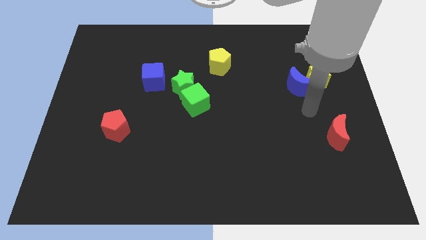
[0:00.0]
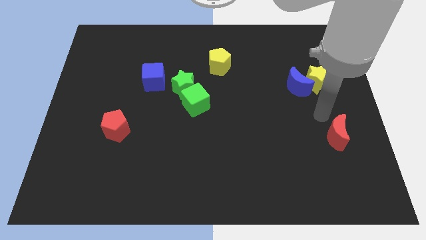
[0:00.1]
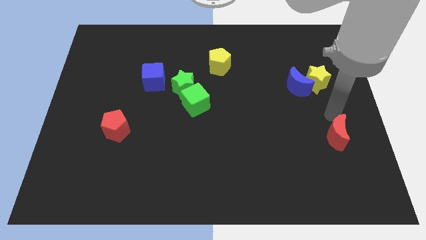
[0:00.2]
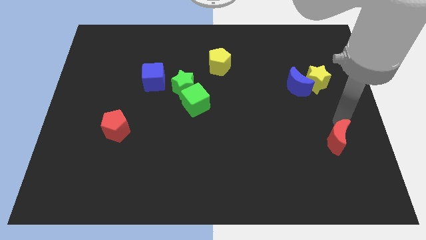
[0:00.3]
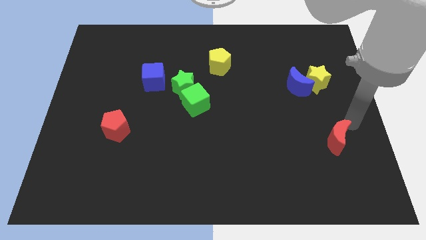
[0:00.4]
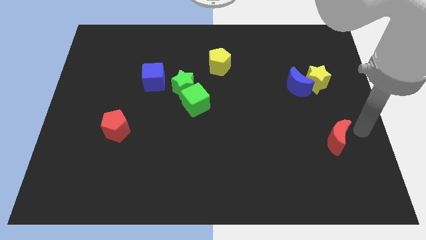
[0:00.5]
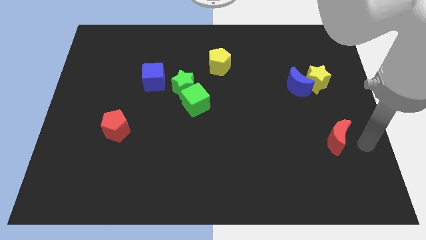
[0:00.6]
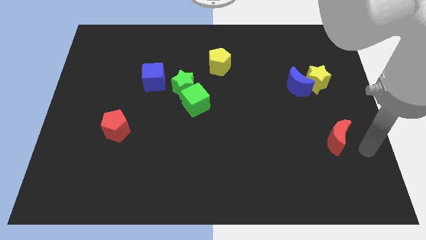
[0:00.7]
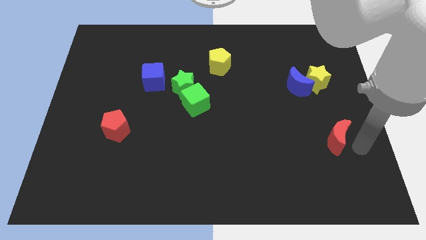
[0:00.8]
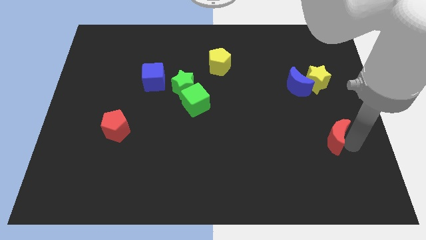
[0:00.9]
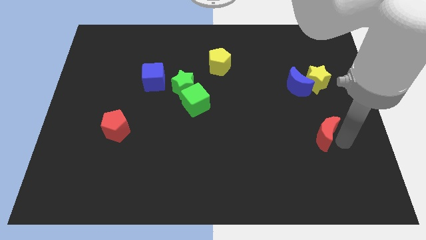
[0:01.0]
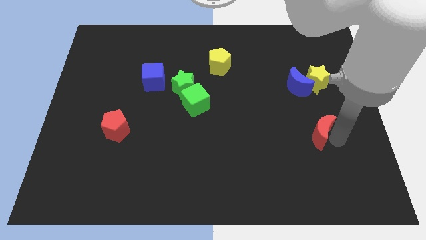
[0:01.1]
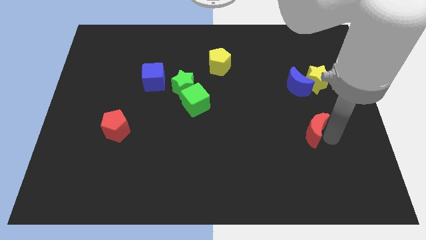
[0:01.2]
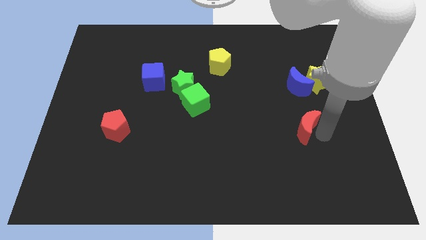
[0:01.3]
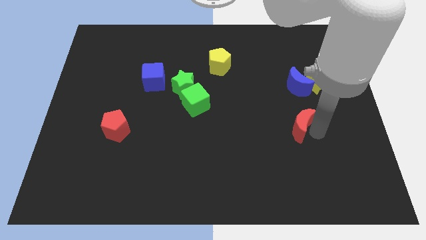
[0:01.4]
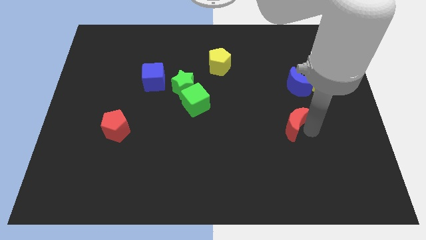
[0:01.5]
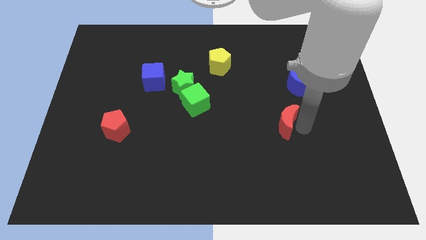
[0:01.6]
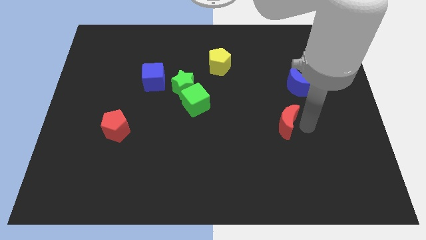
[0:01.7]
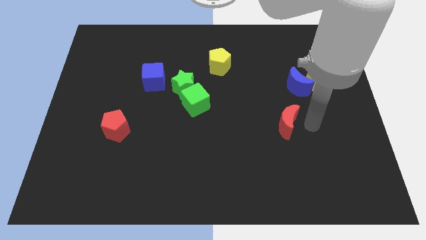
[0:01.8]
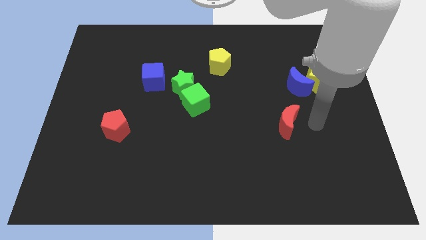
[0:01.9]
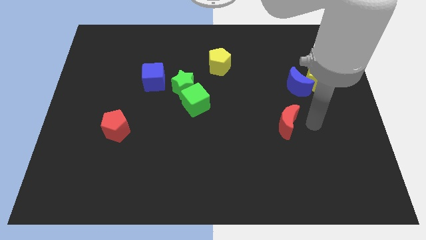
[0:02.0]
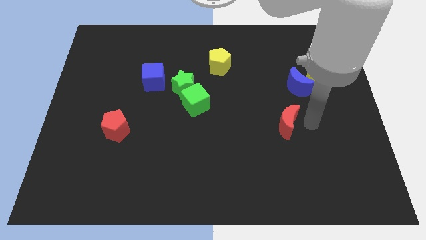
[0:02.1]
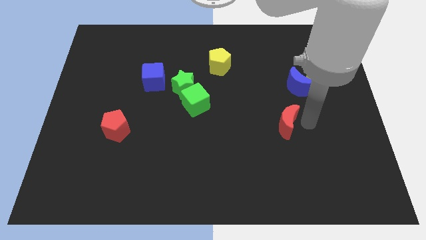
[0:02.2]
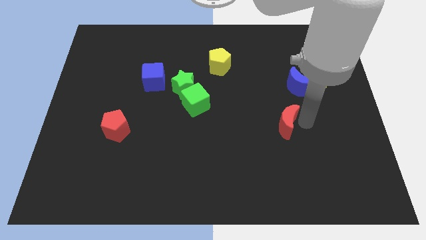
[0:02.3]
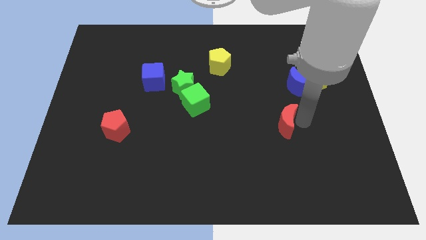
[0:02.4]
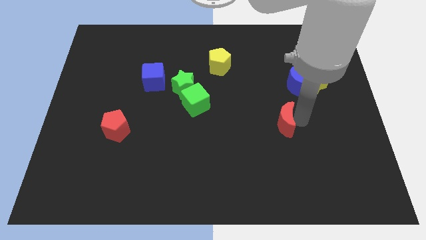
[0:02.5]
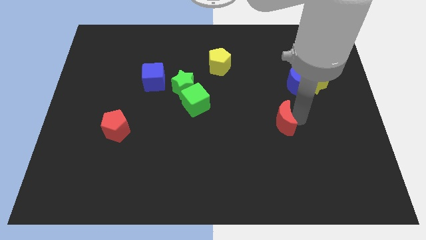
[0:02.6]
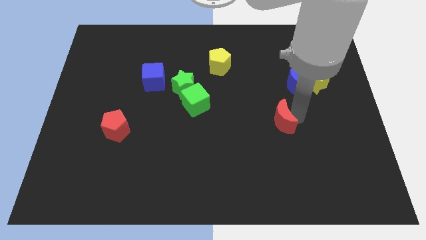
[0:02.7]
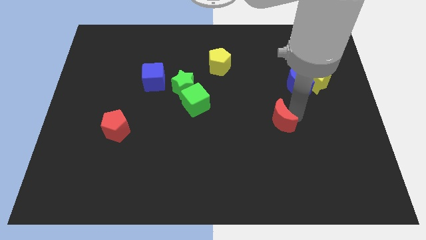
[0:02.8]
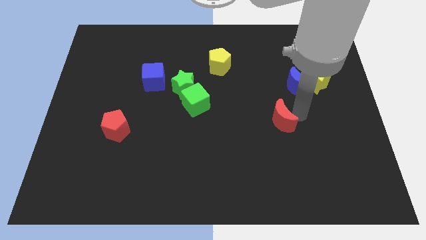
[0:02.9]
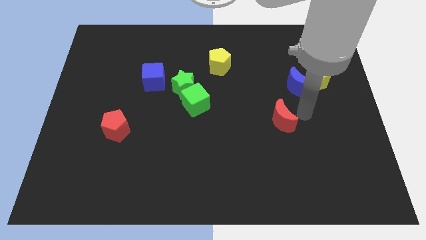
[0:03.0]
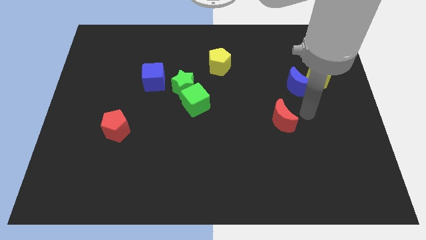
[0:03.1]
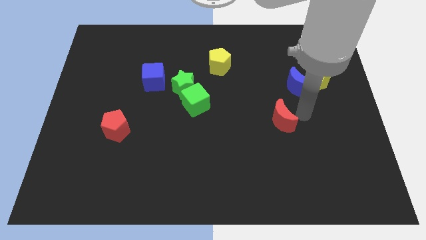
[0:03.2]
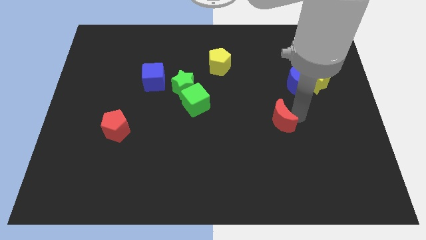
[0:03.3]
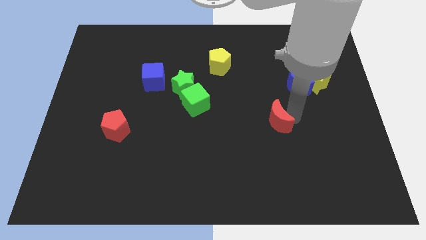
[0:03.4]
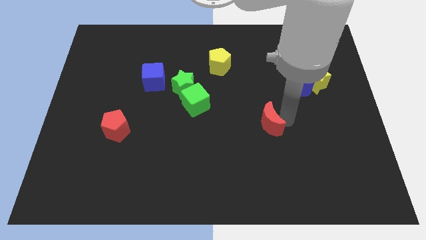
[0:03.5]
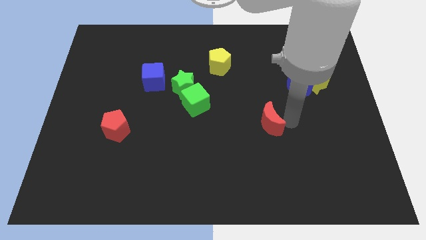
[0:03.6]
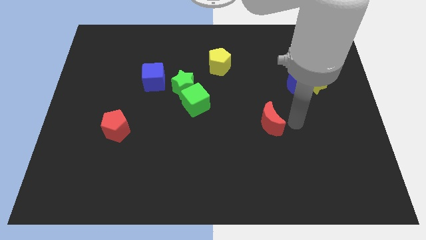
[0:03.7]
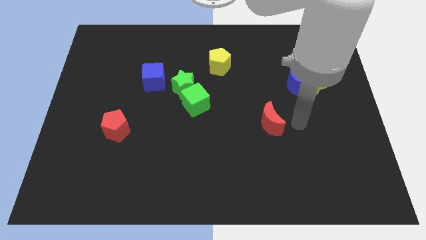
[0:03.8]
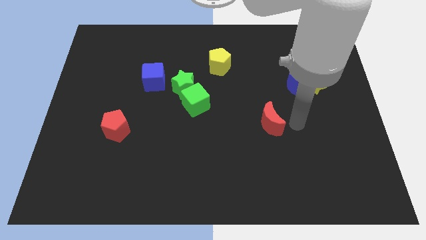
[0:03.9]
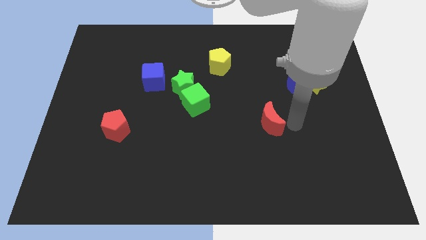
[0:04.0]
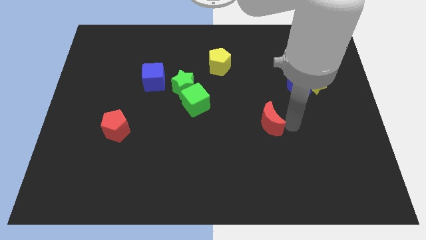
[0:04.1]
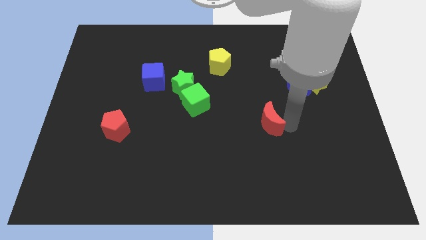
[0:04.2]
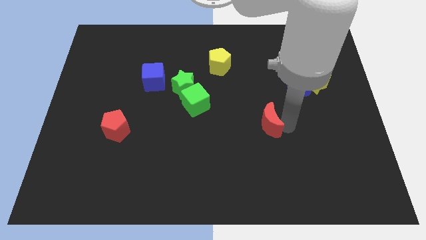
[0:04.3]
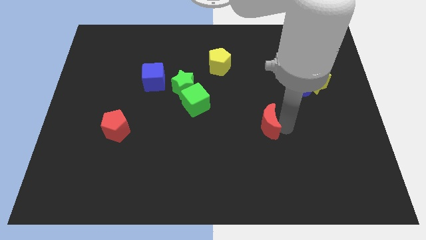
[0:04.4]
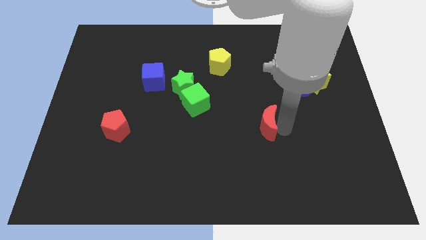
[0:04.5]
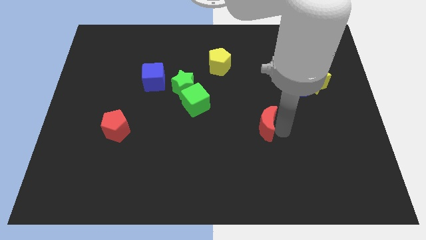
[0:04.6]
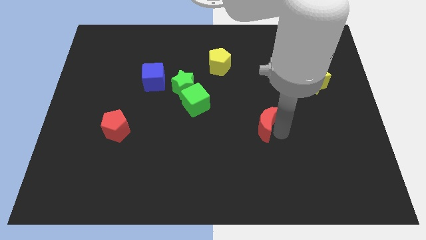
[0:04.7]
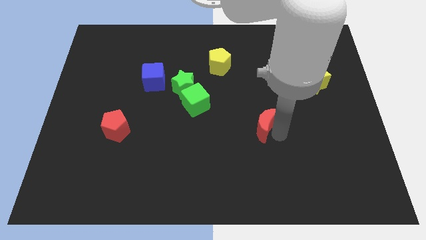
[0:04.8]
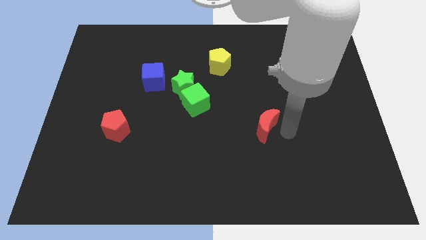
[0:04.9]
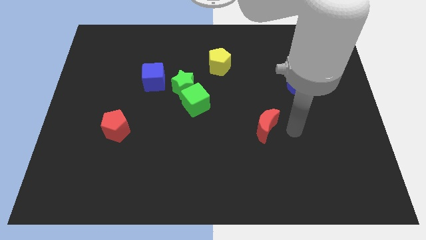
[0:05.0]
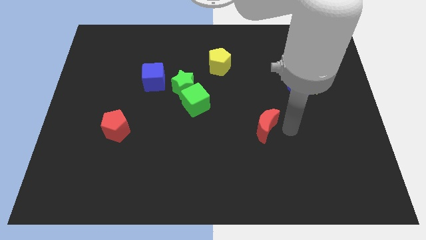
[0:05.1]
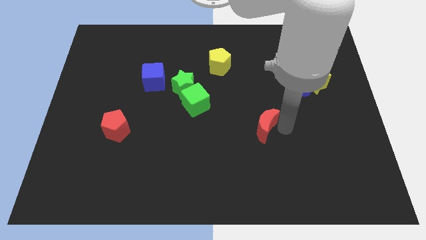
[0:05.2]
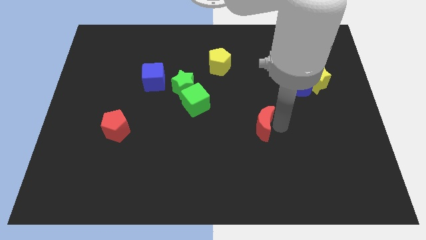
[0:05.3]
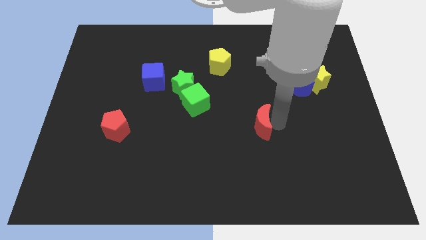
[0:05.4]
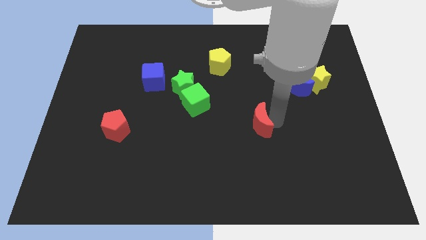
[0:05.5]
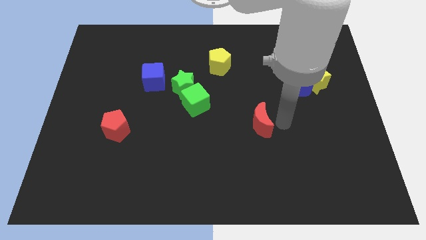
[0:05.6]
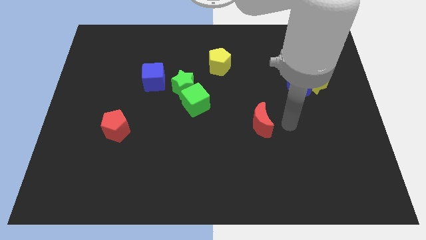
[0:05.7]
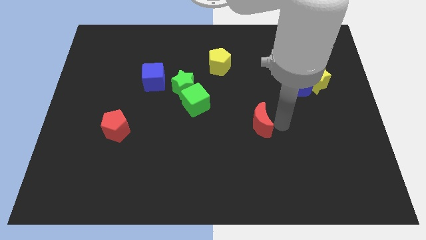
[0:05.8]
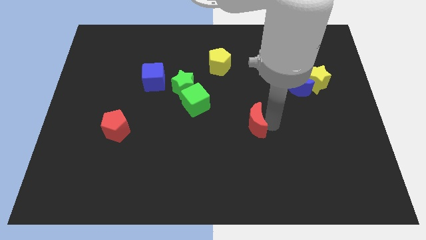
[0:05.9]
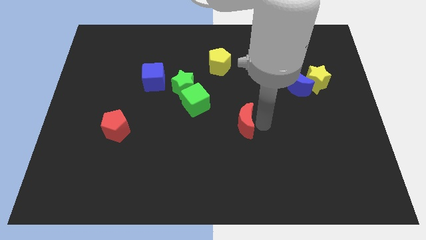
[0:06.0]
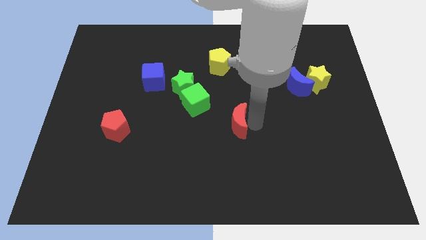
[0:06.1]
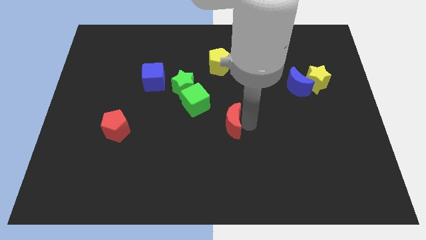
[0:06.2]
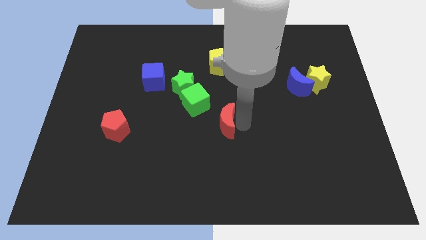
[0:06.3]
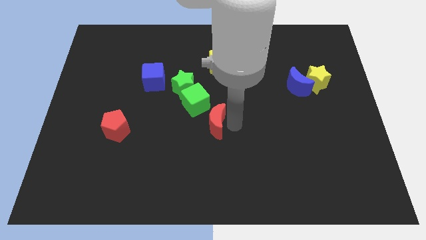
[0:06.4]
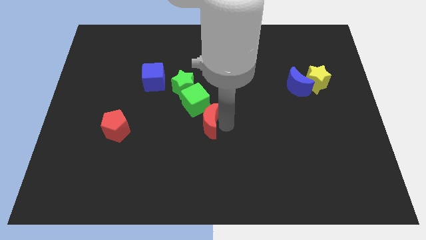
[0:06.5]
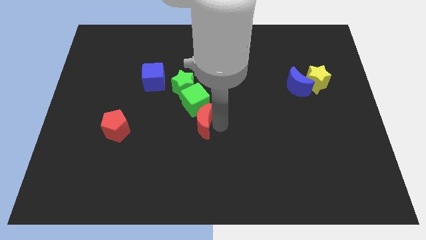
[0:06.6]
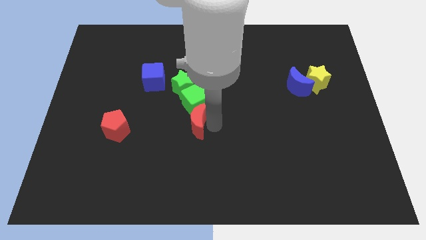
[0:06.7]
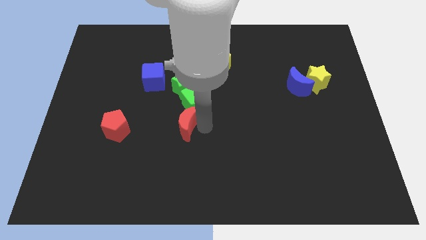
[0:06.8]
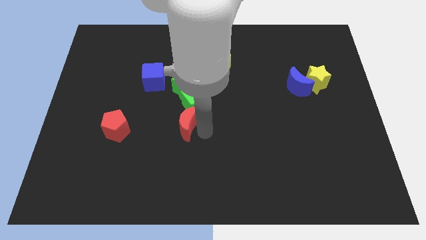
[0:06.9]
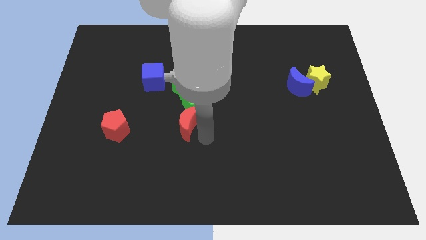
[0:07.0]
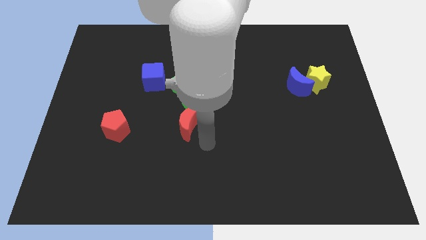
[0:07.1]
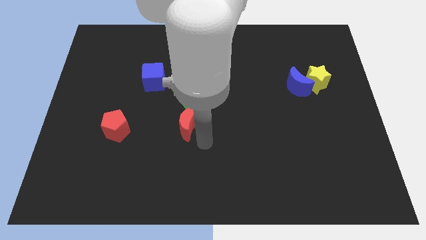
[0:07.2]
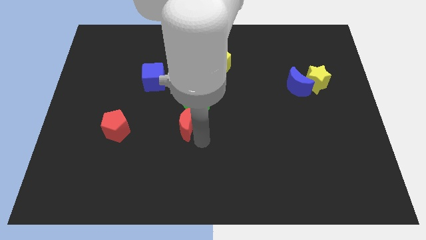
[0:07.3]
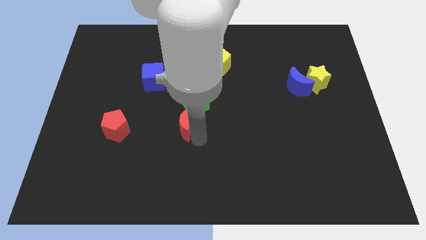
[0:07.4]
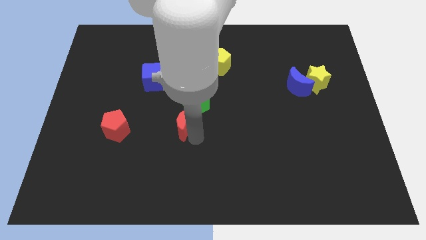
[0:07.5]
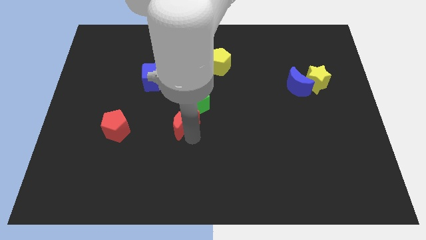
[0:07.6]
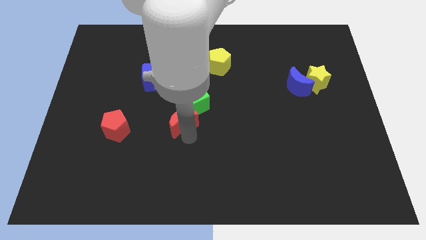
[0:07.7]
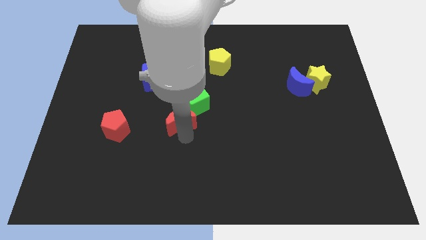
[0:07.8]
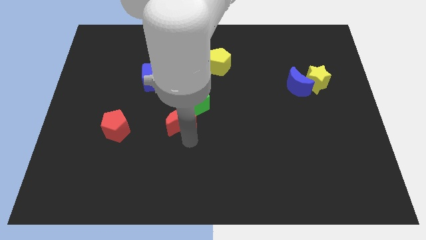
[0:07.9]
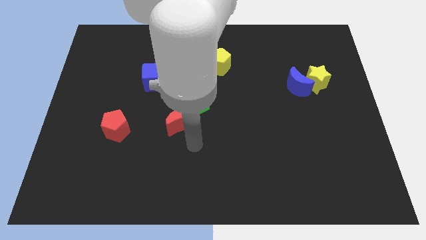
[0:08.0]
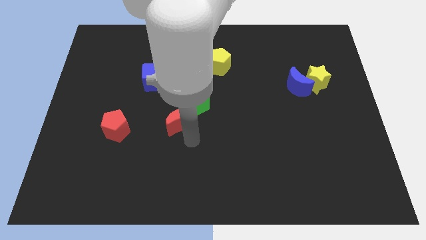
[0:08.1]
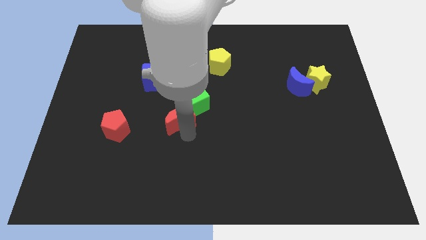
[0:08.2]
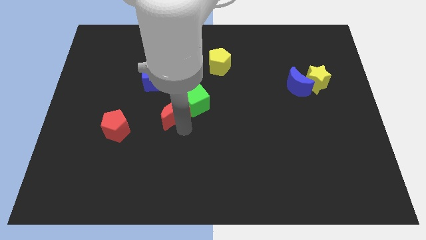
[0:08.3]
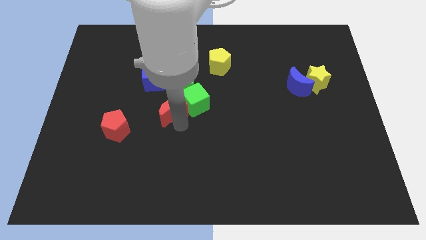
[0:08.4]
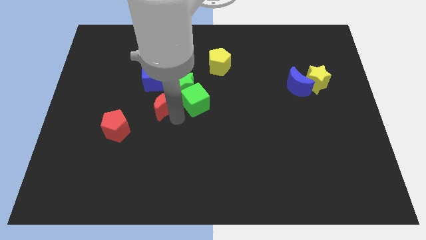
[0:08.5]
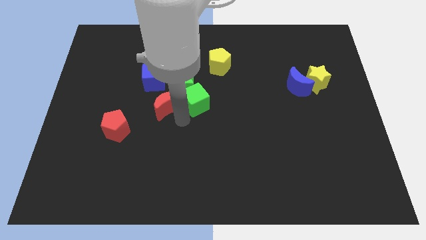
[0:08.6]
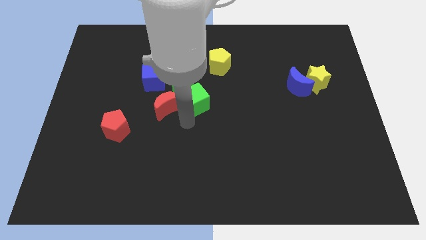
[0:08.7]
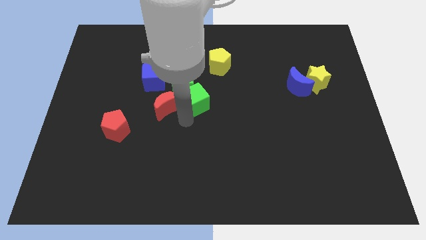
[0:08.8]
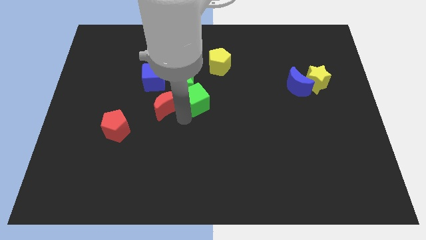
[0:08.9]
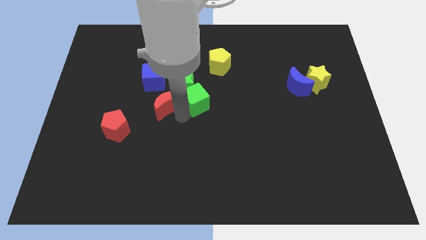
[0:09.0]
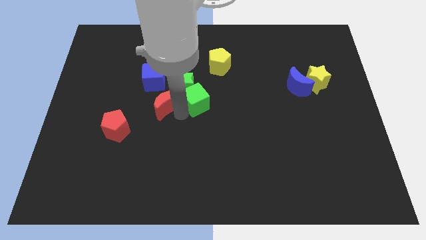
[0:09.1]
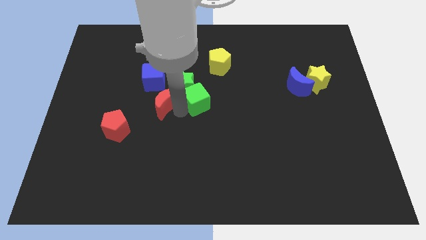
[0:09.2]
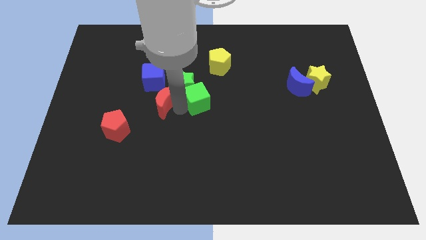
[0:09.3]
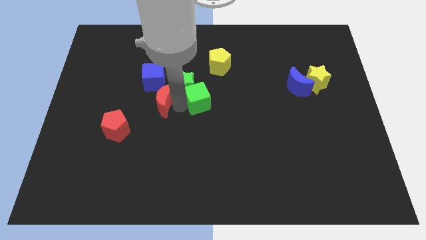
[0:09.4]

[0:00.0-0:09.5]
push the red moon left of the green star
